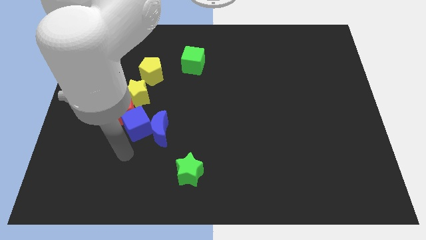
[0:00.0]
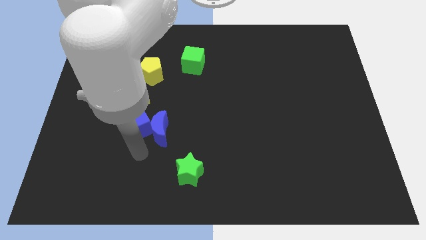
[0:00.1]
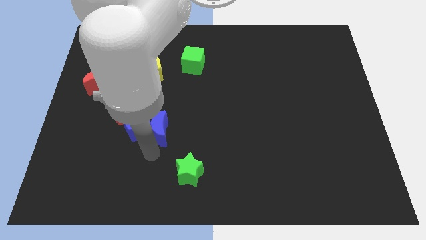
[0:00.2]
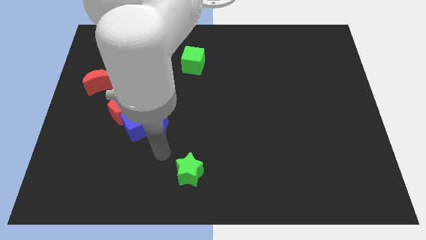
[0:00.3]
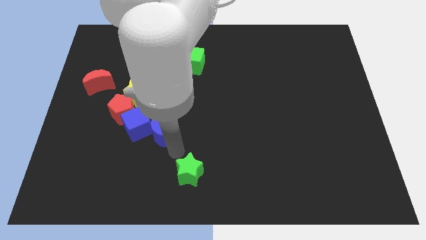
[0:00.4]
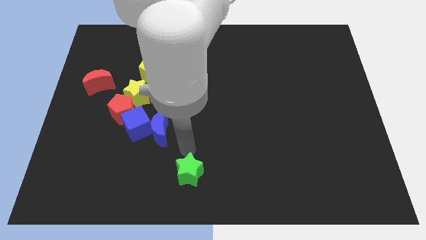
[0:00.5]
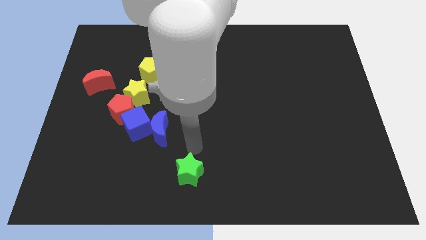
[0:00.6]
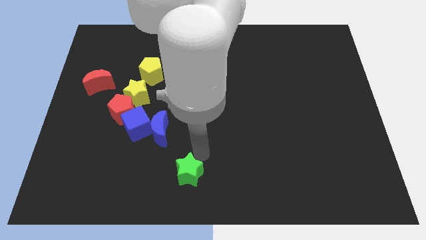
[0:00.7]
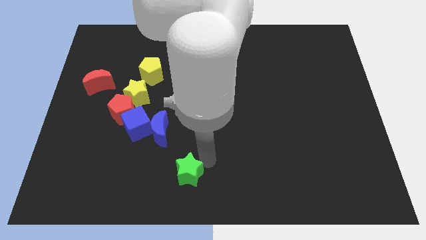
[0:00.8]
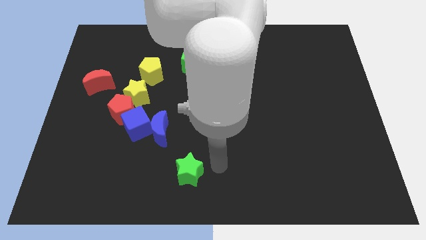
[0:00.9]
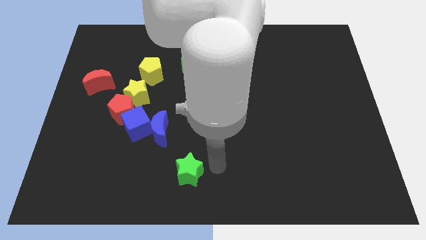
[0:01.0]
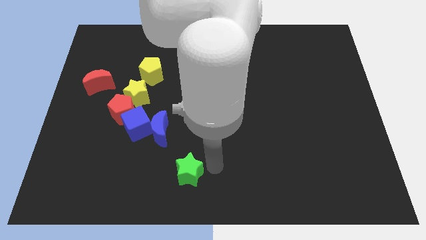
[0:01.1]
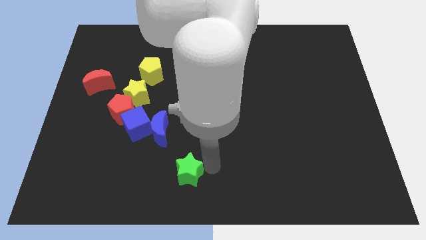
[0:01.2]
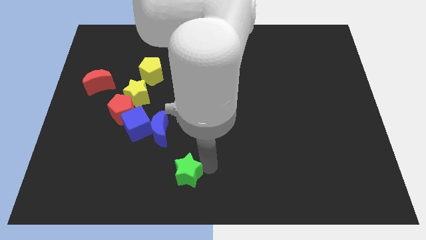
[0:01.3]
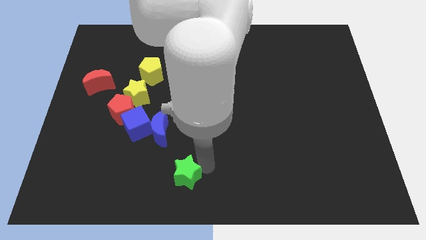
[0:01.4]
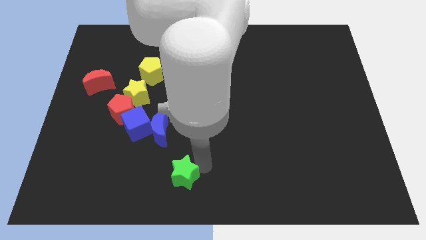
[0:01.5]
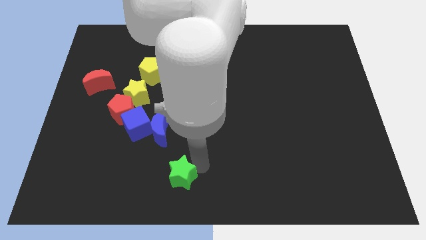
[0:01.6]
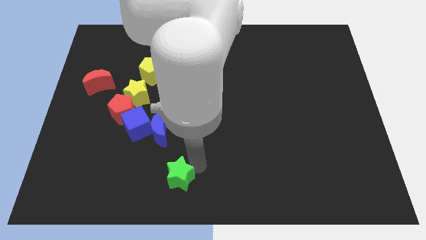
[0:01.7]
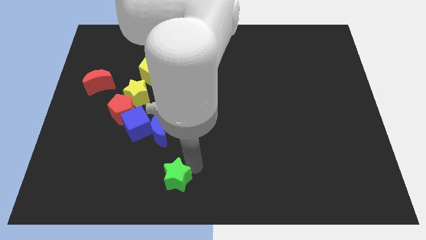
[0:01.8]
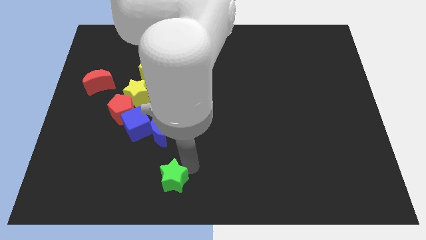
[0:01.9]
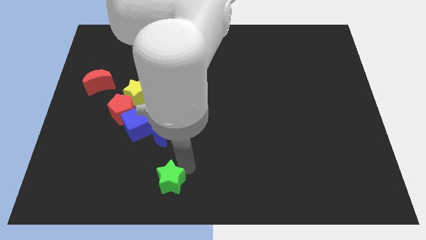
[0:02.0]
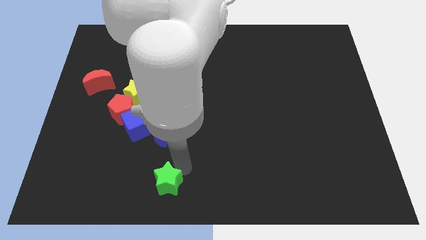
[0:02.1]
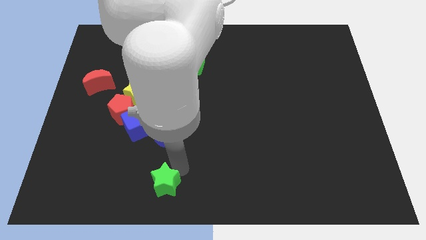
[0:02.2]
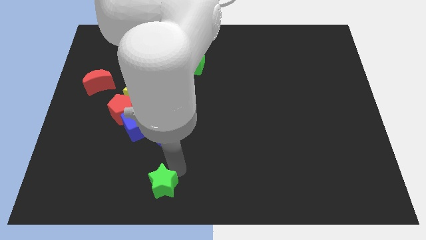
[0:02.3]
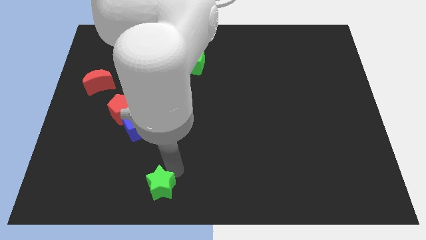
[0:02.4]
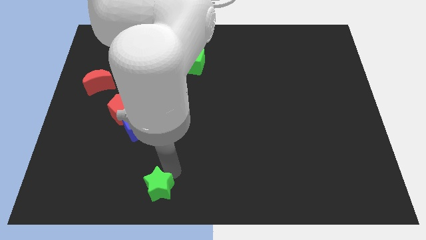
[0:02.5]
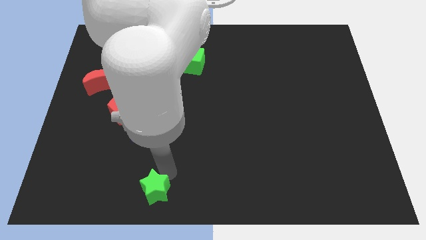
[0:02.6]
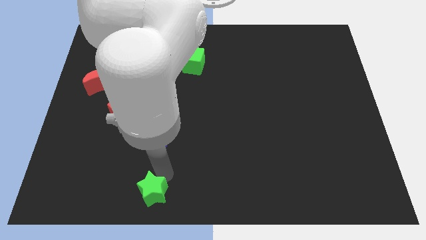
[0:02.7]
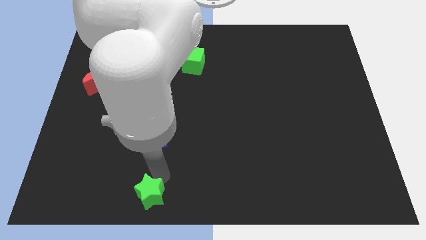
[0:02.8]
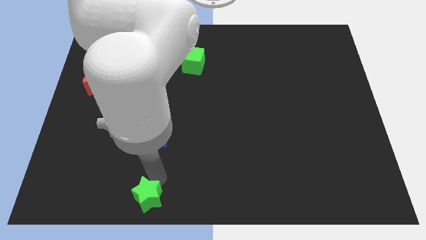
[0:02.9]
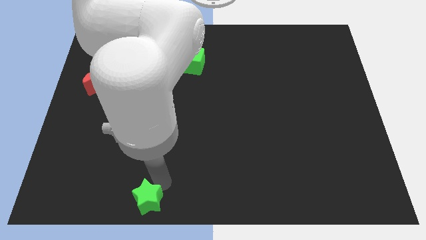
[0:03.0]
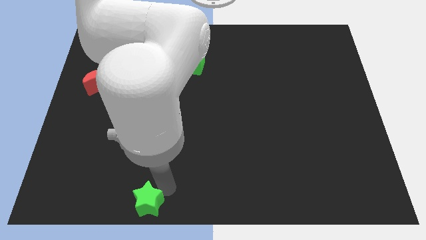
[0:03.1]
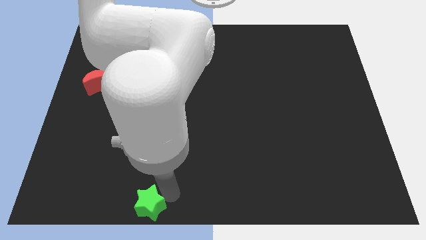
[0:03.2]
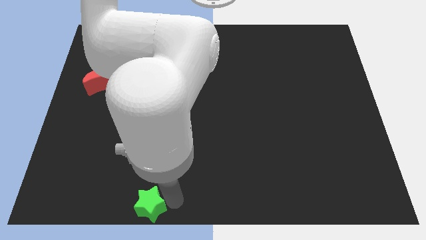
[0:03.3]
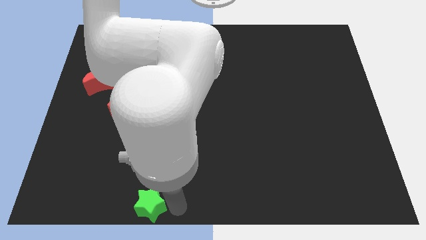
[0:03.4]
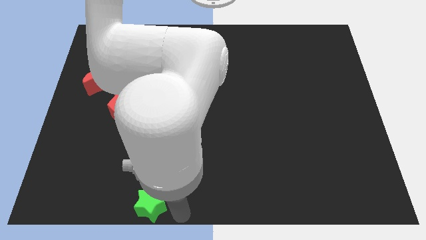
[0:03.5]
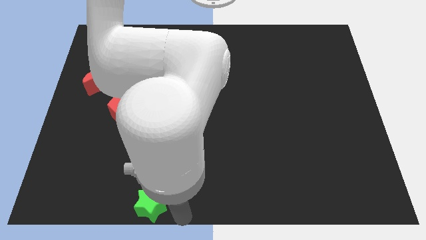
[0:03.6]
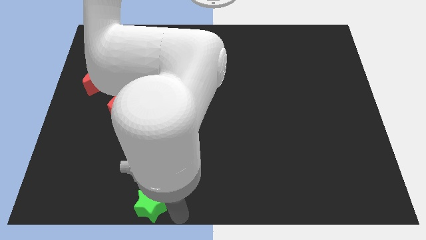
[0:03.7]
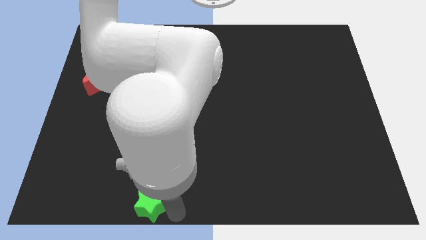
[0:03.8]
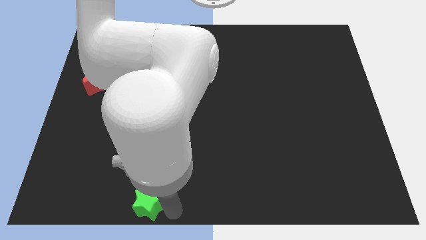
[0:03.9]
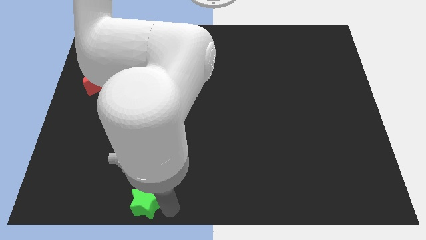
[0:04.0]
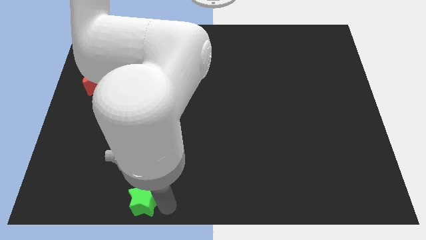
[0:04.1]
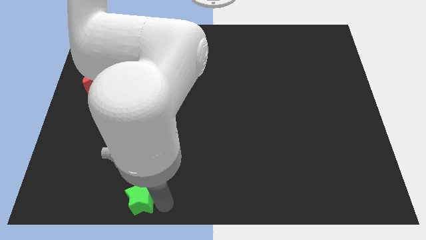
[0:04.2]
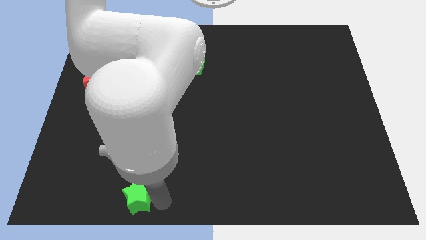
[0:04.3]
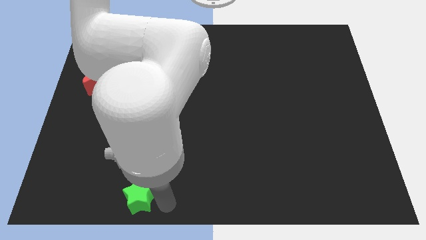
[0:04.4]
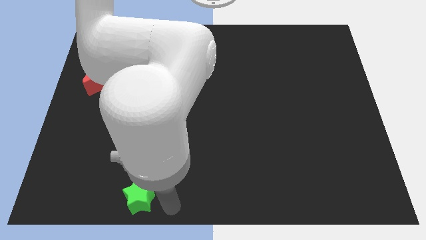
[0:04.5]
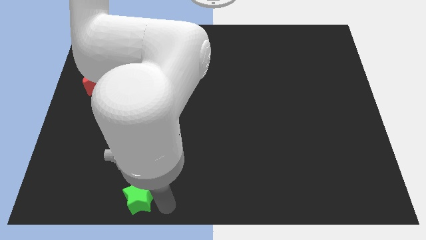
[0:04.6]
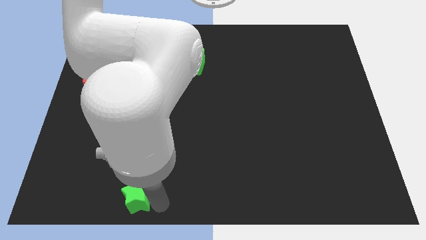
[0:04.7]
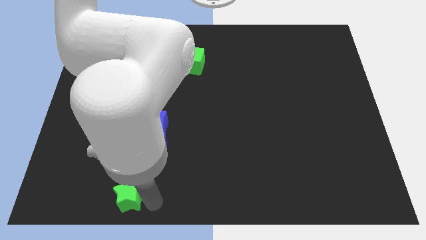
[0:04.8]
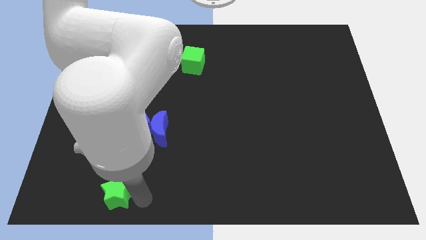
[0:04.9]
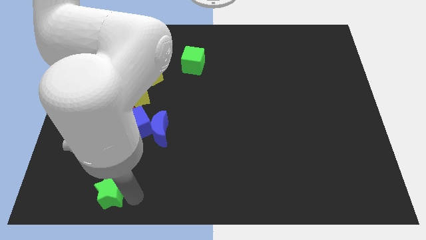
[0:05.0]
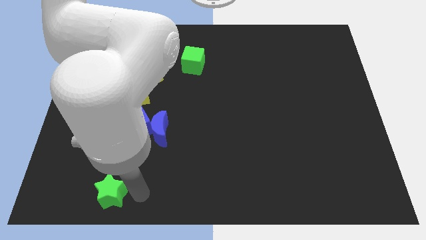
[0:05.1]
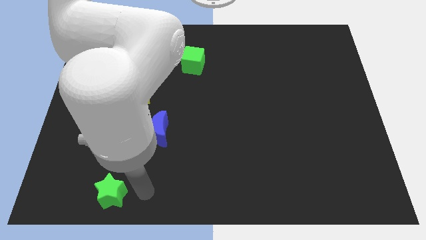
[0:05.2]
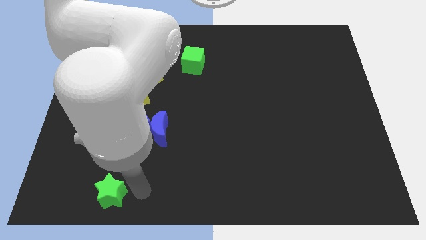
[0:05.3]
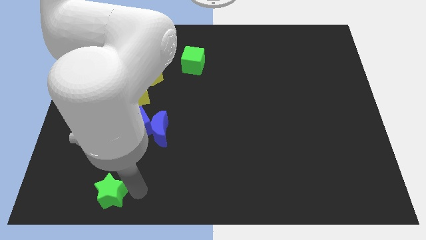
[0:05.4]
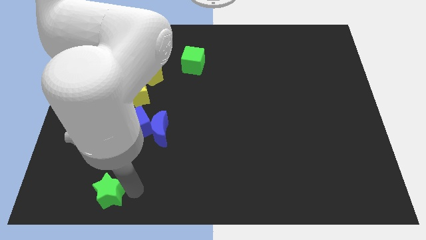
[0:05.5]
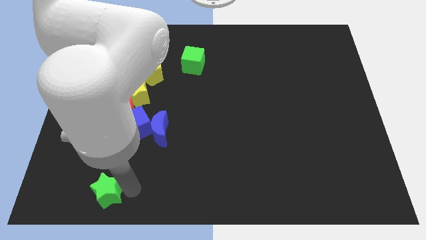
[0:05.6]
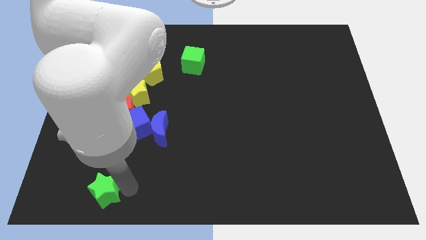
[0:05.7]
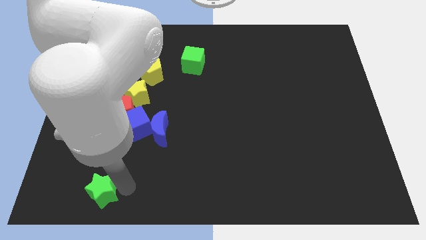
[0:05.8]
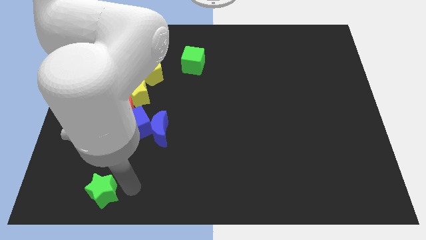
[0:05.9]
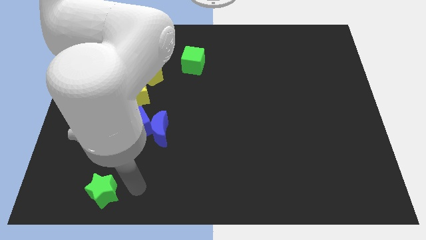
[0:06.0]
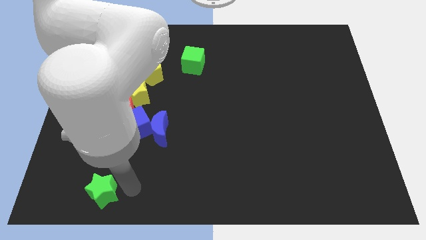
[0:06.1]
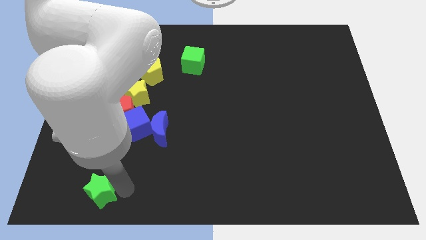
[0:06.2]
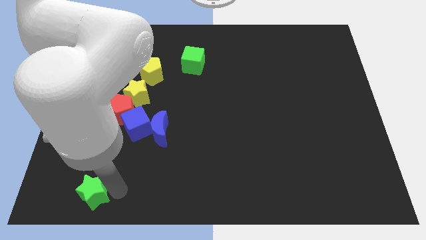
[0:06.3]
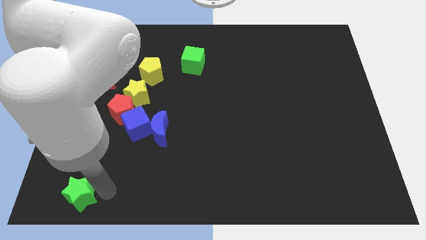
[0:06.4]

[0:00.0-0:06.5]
slide the green star to the bottom left
